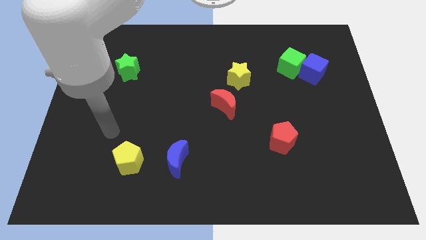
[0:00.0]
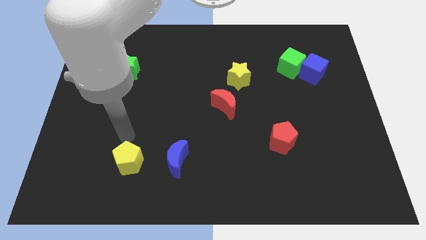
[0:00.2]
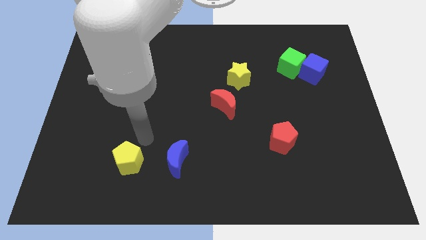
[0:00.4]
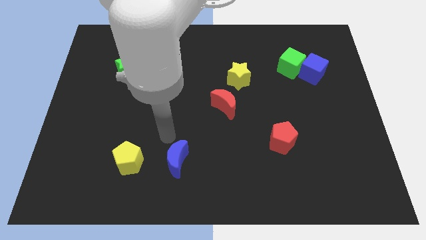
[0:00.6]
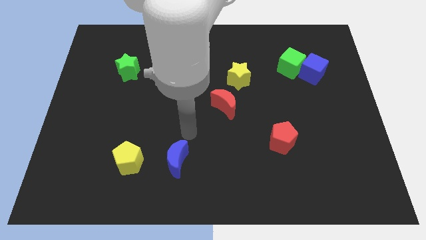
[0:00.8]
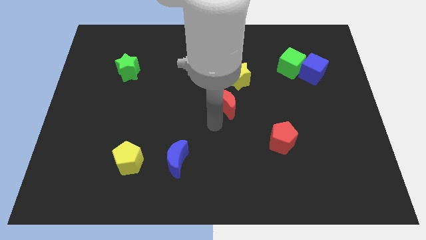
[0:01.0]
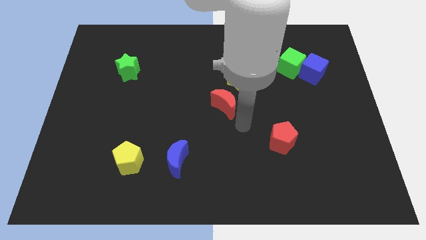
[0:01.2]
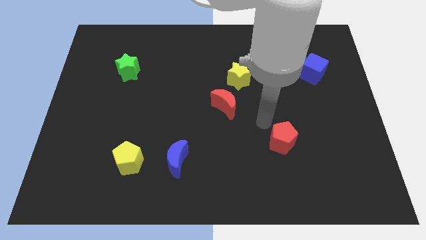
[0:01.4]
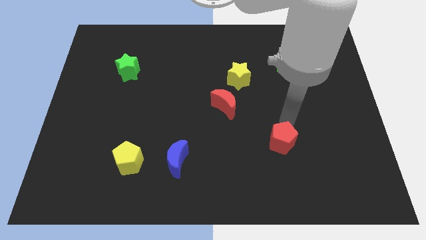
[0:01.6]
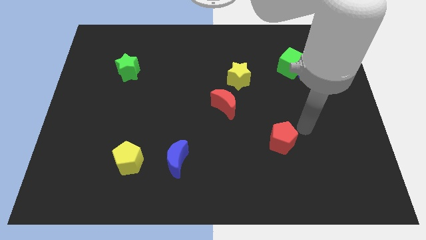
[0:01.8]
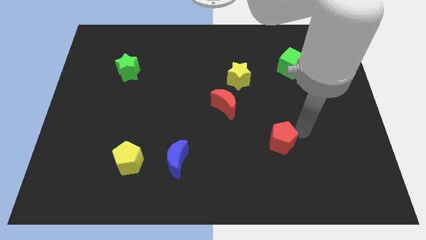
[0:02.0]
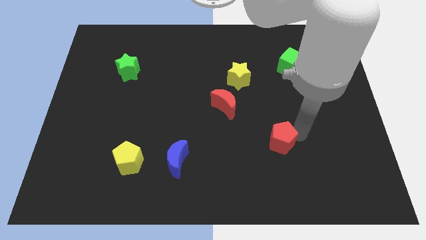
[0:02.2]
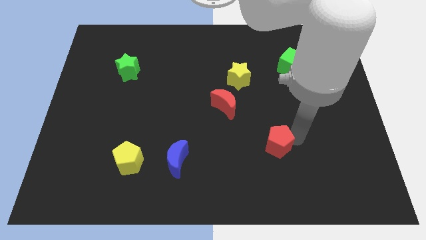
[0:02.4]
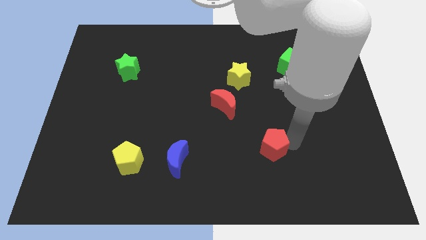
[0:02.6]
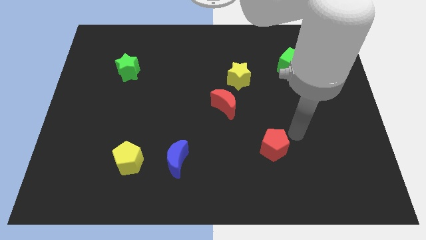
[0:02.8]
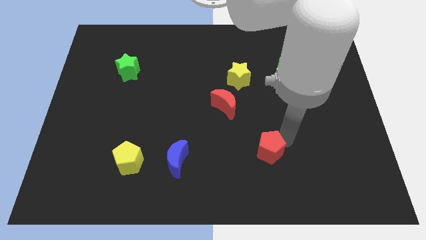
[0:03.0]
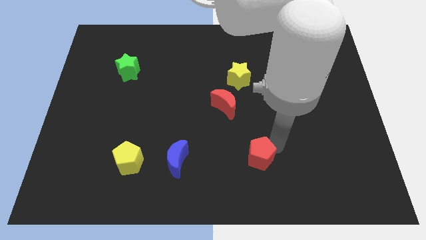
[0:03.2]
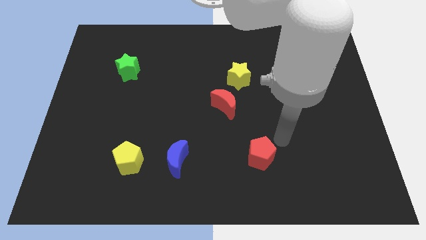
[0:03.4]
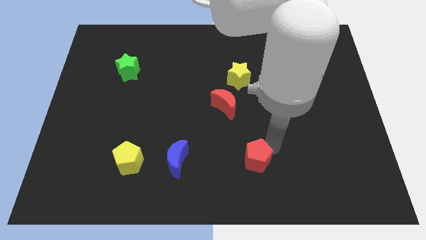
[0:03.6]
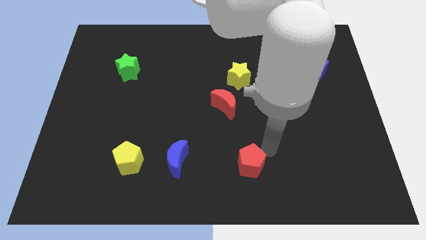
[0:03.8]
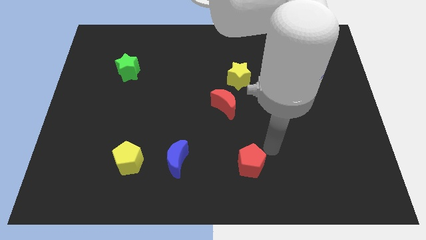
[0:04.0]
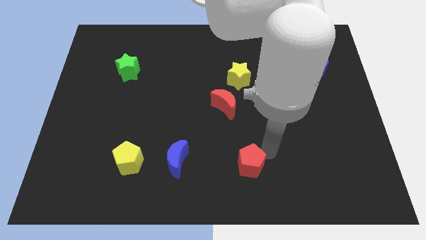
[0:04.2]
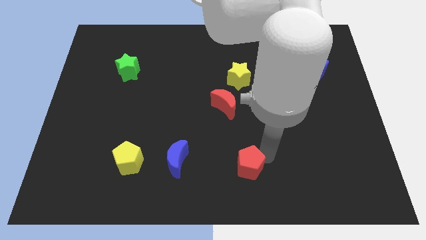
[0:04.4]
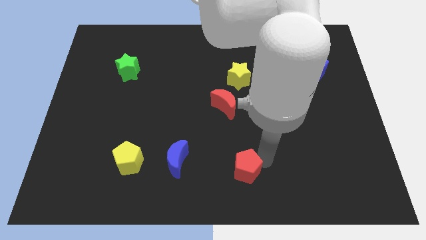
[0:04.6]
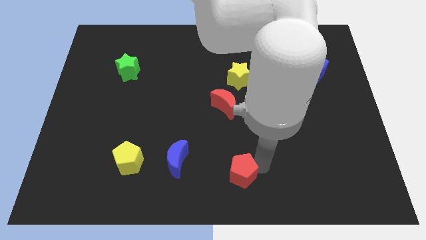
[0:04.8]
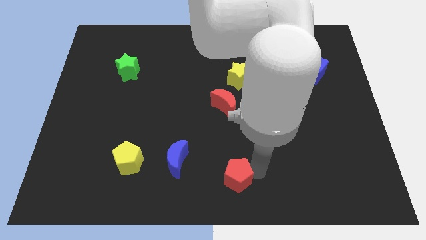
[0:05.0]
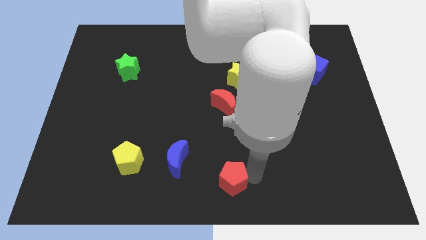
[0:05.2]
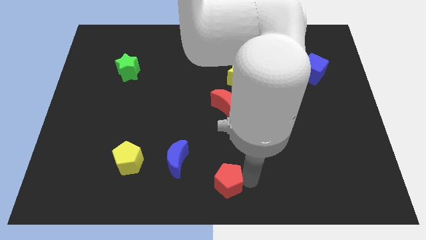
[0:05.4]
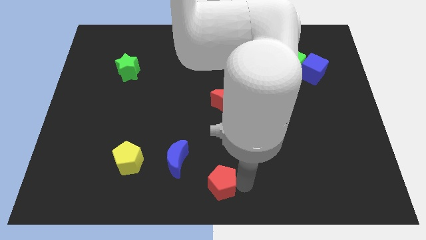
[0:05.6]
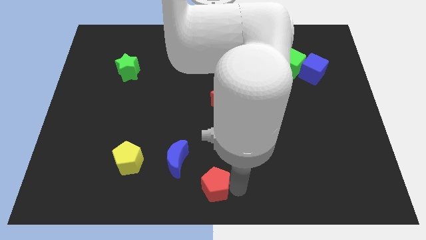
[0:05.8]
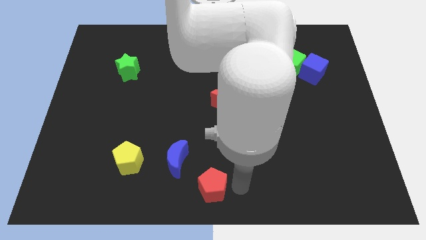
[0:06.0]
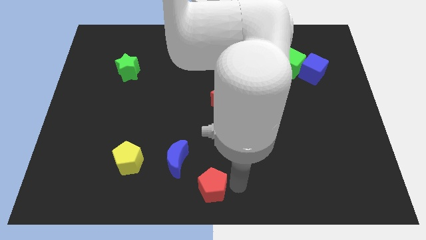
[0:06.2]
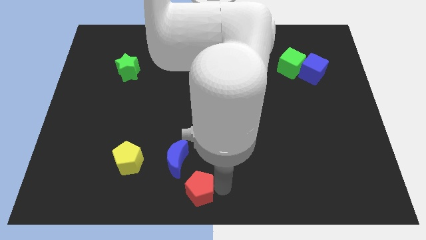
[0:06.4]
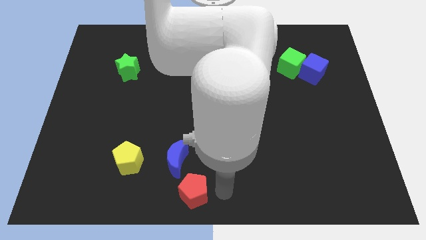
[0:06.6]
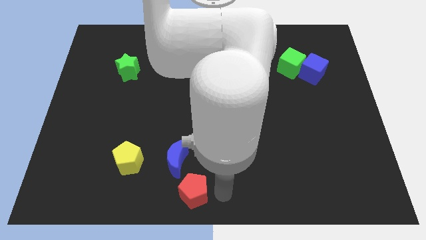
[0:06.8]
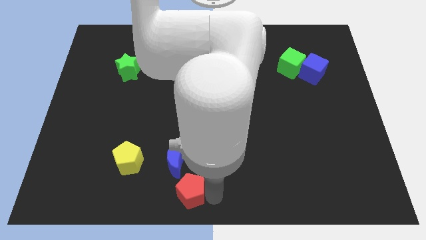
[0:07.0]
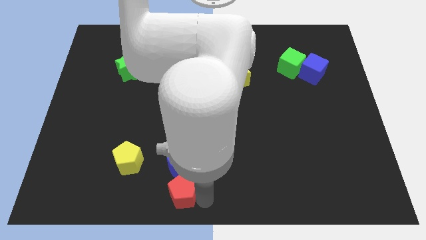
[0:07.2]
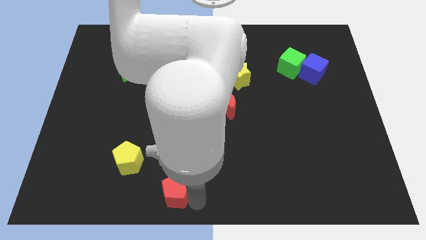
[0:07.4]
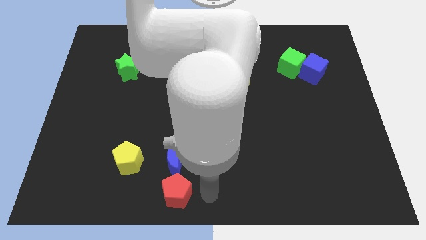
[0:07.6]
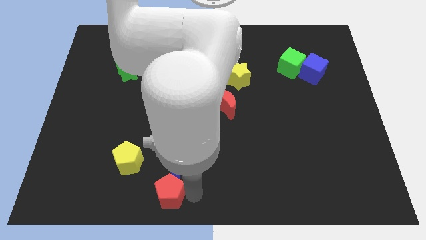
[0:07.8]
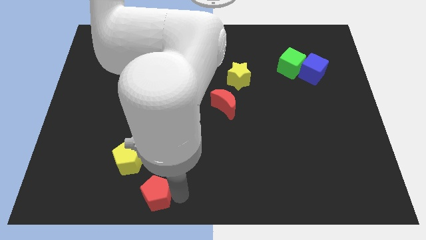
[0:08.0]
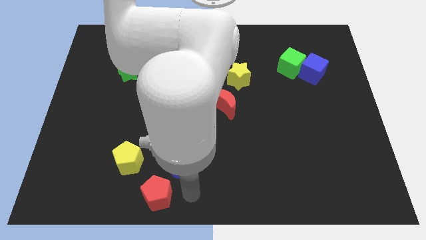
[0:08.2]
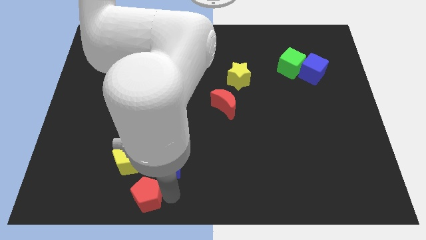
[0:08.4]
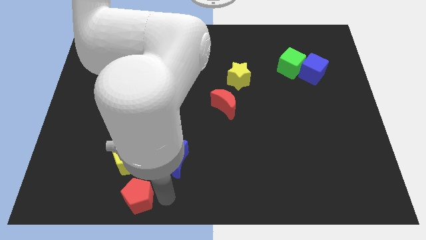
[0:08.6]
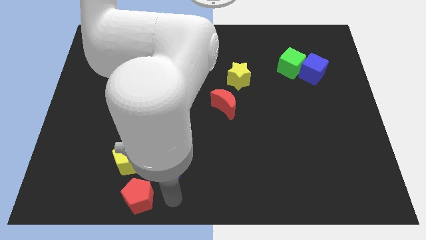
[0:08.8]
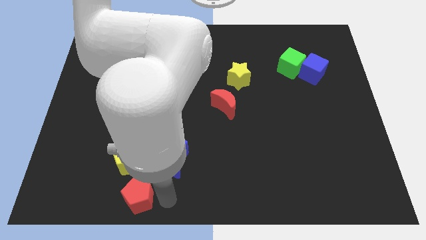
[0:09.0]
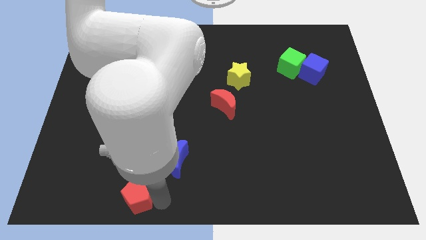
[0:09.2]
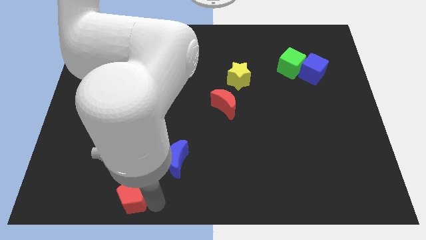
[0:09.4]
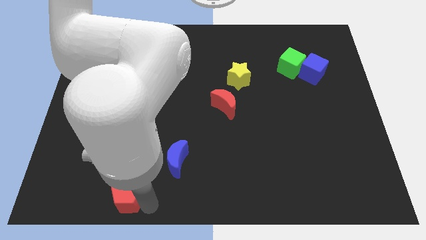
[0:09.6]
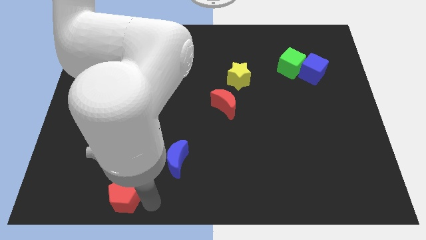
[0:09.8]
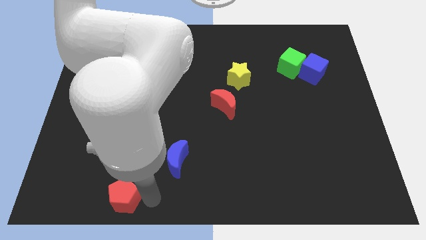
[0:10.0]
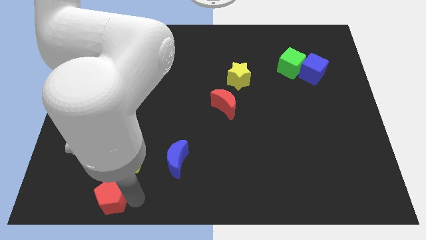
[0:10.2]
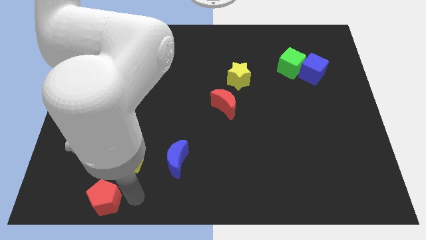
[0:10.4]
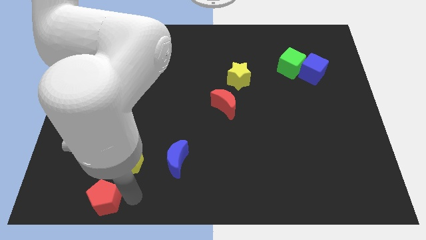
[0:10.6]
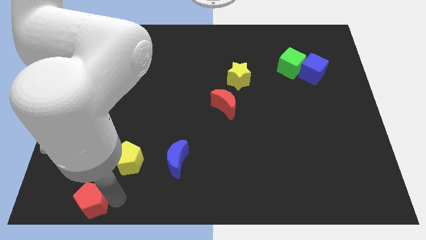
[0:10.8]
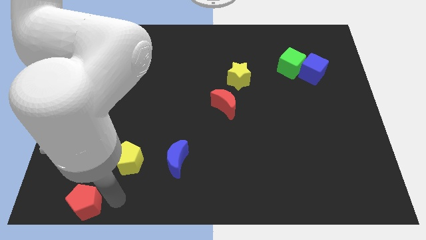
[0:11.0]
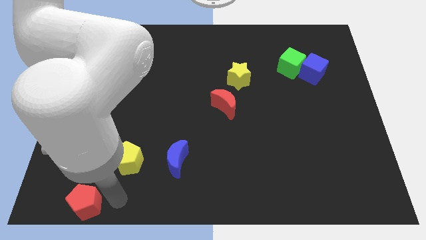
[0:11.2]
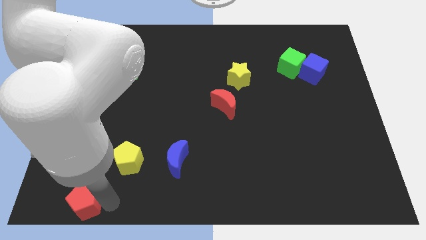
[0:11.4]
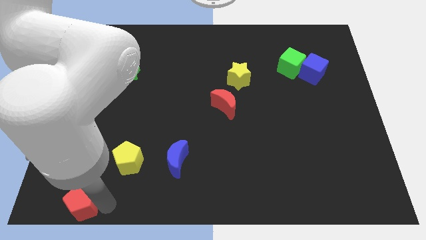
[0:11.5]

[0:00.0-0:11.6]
put the red pentagon to the lower left corner

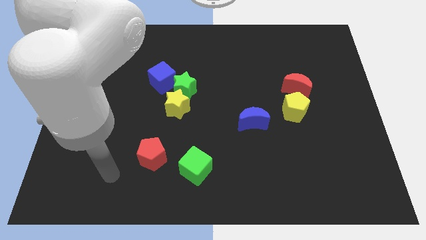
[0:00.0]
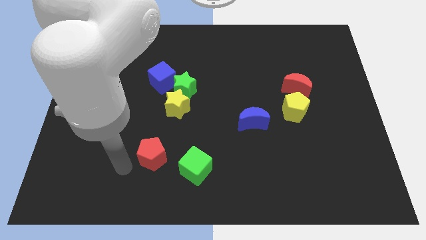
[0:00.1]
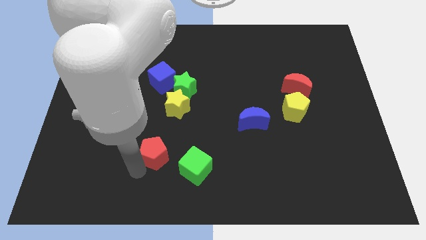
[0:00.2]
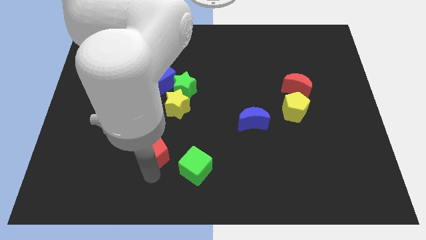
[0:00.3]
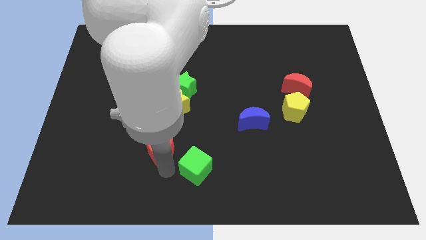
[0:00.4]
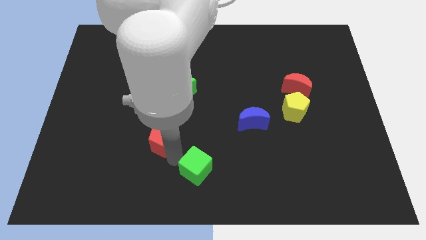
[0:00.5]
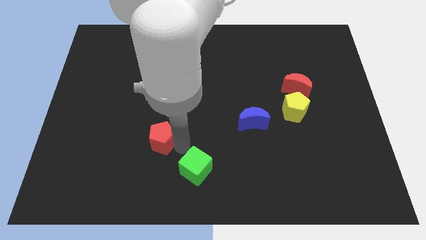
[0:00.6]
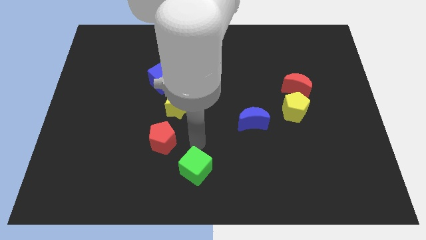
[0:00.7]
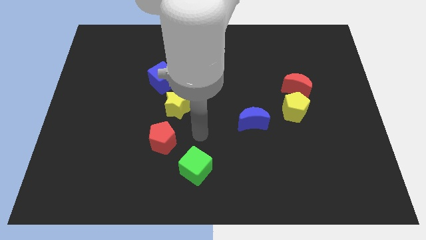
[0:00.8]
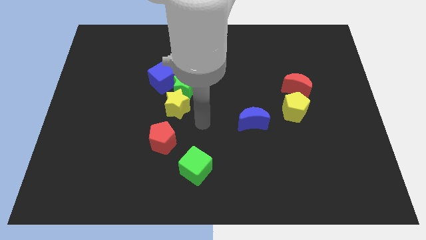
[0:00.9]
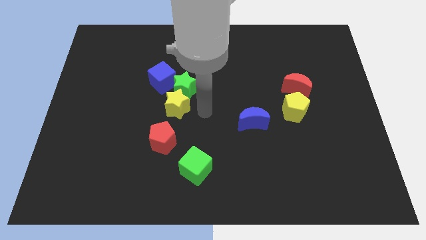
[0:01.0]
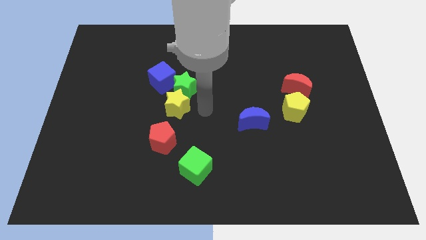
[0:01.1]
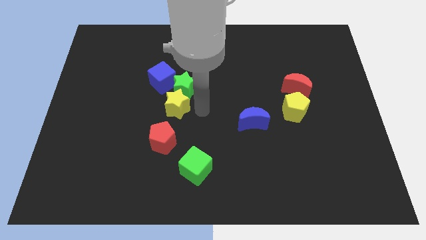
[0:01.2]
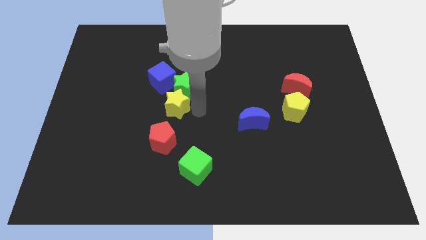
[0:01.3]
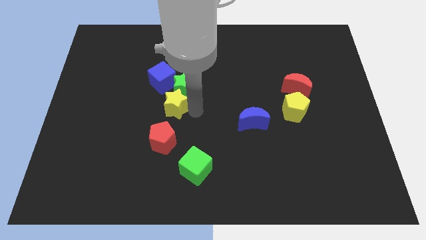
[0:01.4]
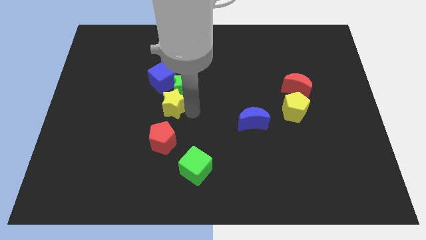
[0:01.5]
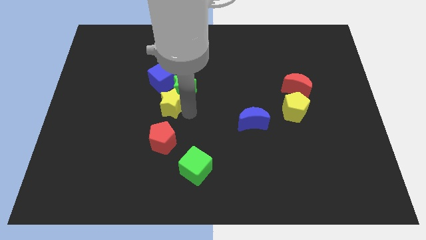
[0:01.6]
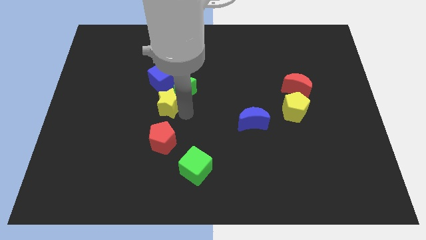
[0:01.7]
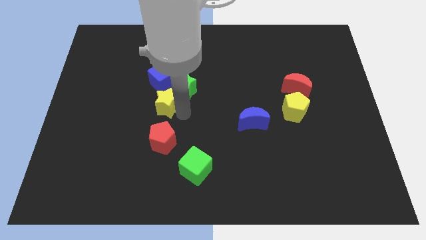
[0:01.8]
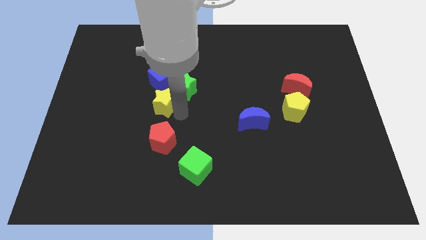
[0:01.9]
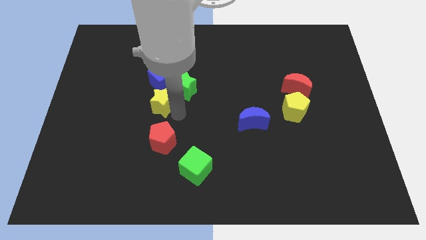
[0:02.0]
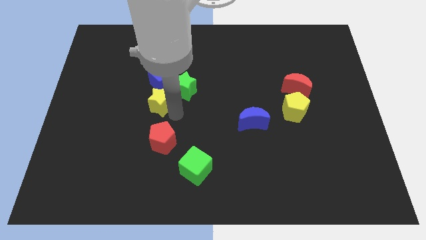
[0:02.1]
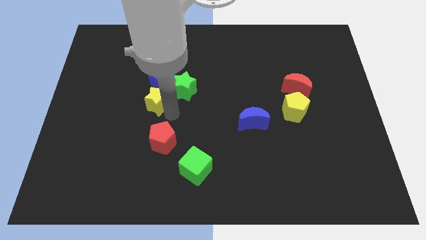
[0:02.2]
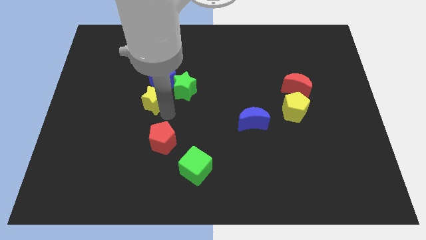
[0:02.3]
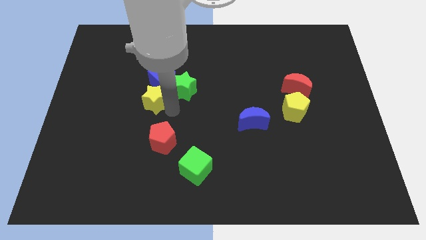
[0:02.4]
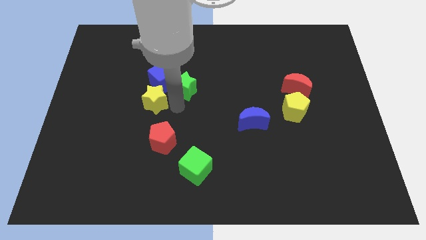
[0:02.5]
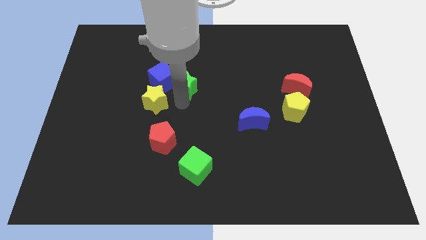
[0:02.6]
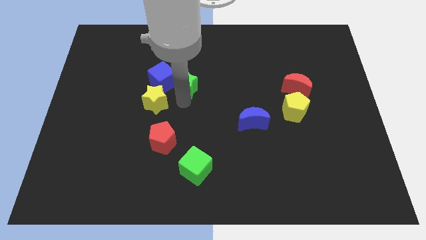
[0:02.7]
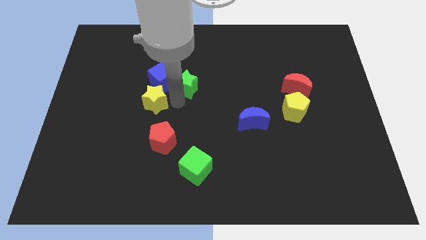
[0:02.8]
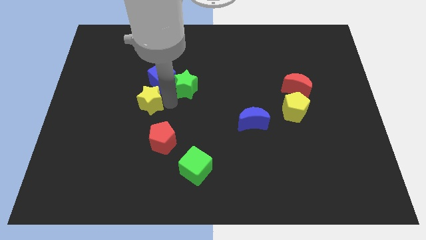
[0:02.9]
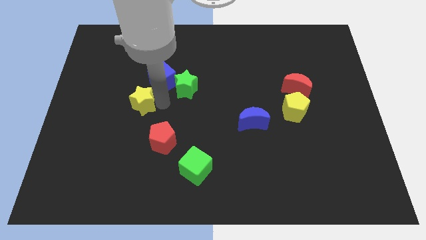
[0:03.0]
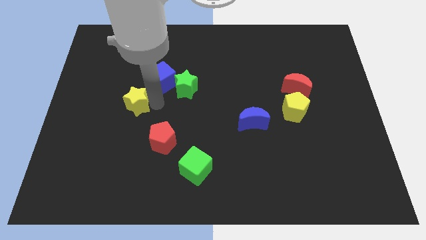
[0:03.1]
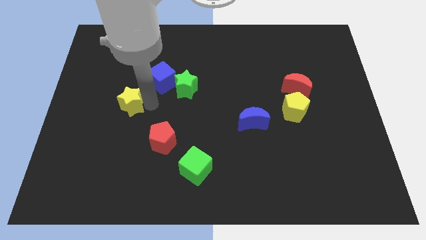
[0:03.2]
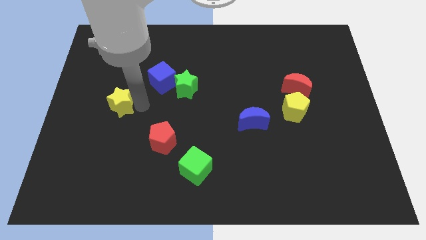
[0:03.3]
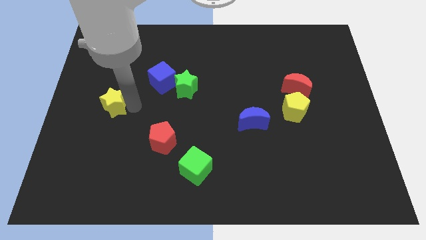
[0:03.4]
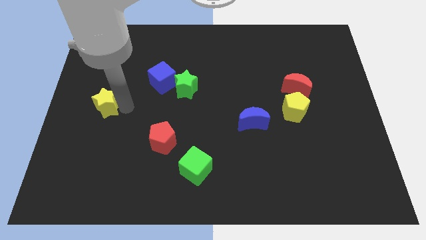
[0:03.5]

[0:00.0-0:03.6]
move the yellow star to the left side
